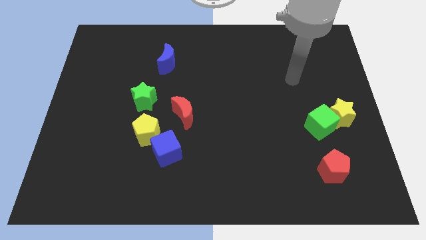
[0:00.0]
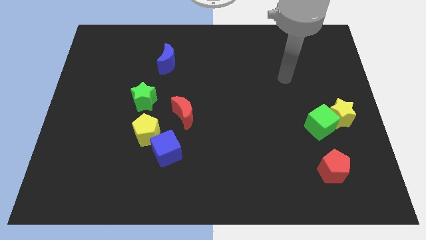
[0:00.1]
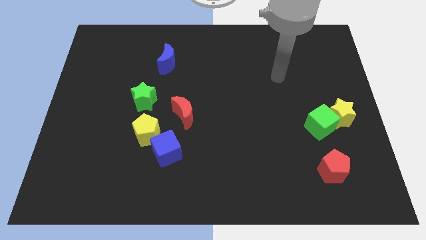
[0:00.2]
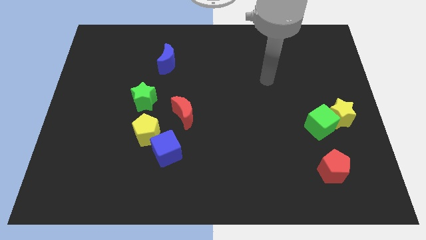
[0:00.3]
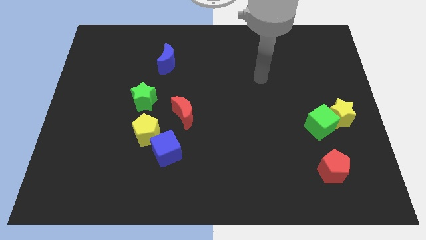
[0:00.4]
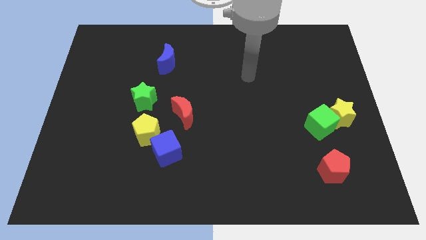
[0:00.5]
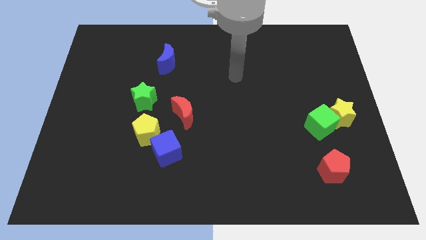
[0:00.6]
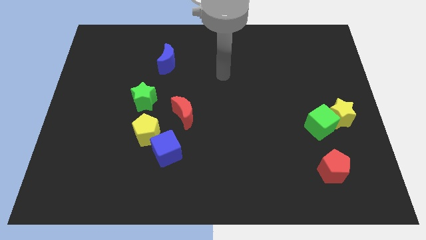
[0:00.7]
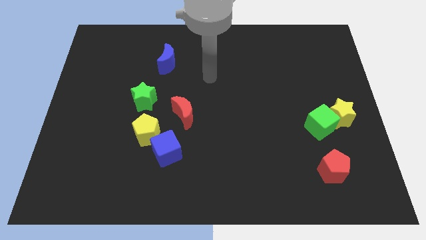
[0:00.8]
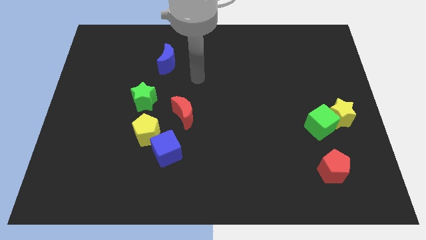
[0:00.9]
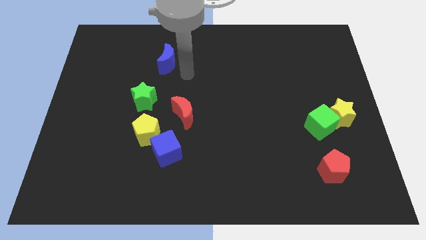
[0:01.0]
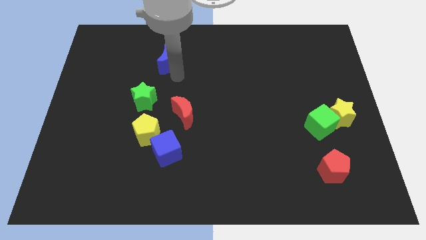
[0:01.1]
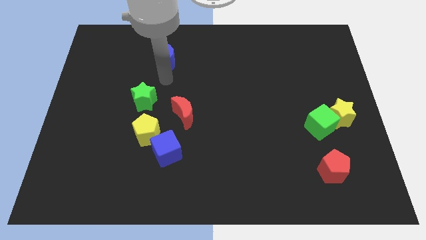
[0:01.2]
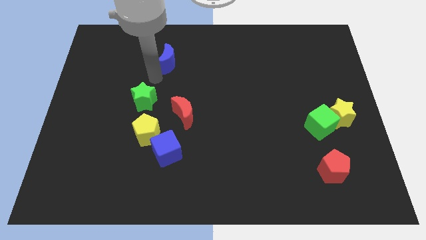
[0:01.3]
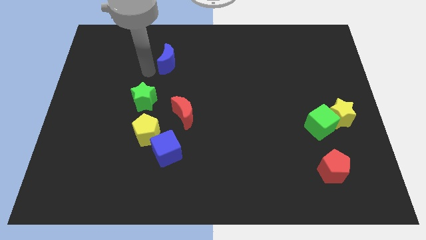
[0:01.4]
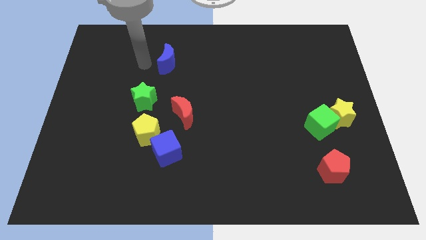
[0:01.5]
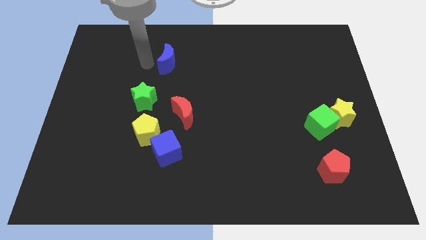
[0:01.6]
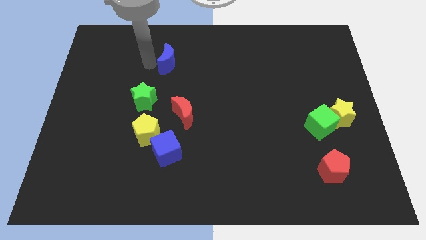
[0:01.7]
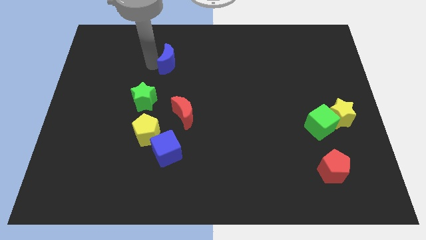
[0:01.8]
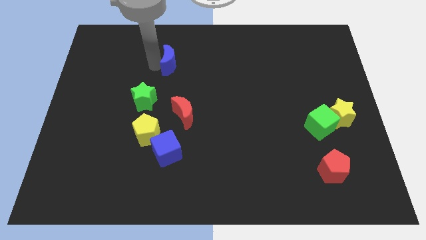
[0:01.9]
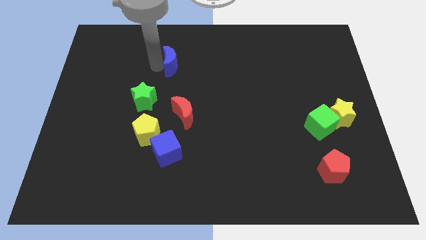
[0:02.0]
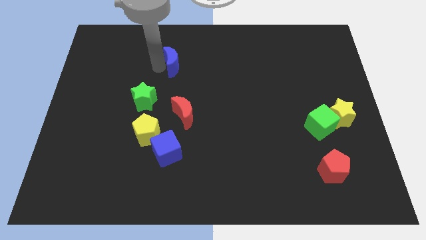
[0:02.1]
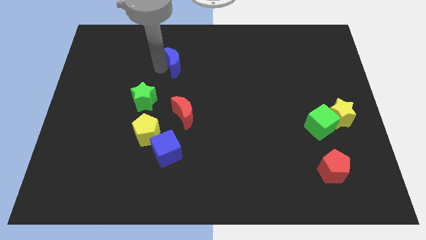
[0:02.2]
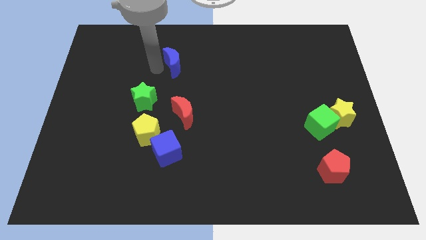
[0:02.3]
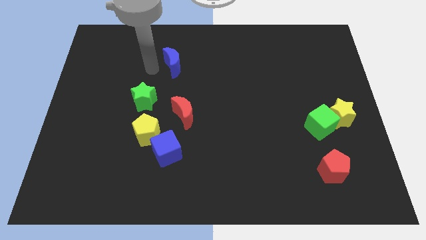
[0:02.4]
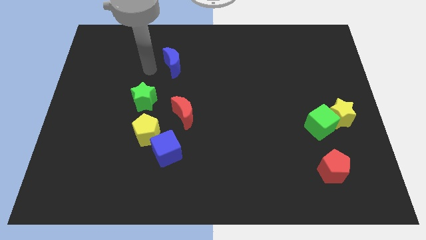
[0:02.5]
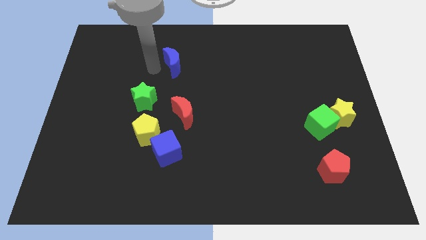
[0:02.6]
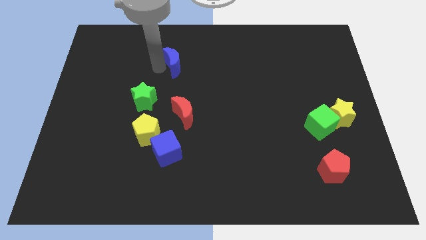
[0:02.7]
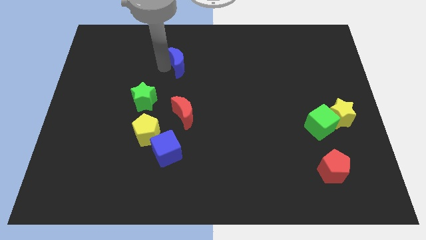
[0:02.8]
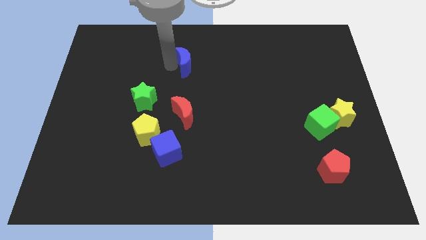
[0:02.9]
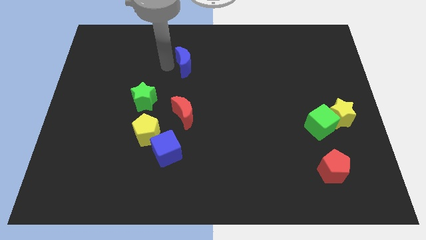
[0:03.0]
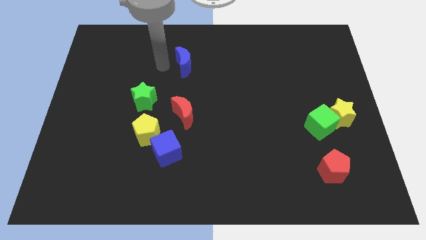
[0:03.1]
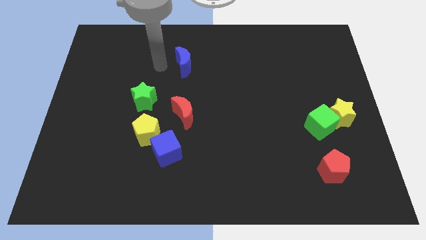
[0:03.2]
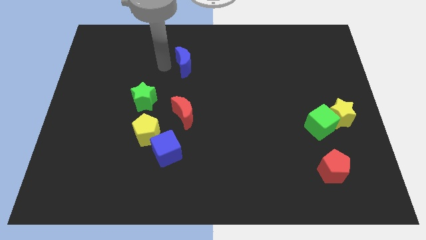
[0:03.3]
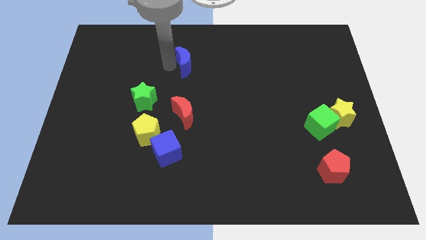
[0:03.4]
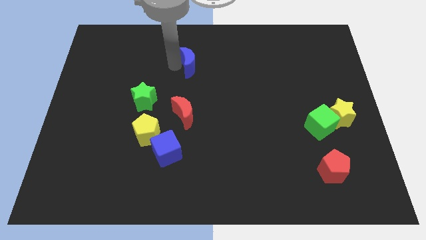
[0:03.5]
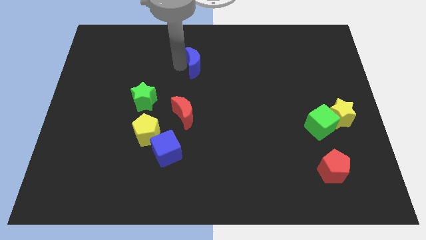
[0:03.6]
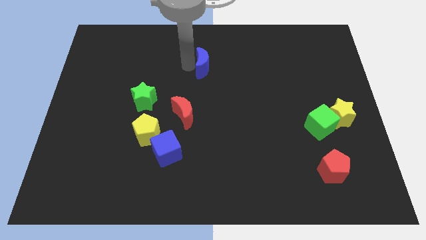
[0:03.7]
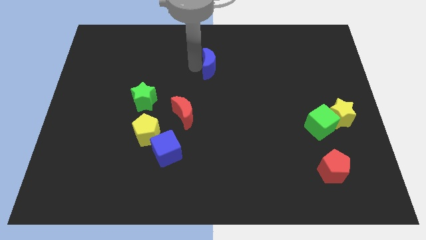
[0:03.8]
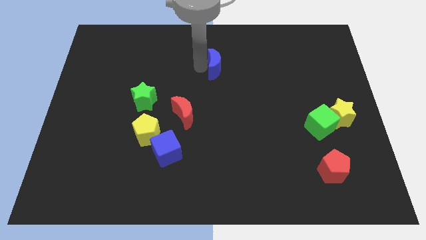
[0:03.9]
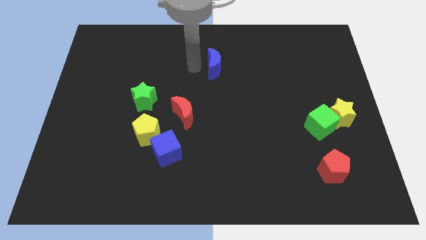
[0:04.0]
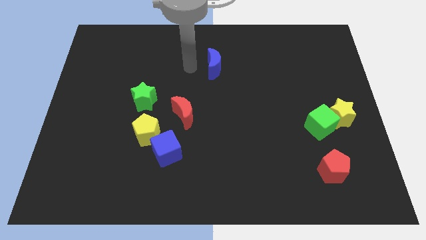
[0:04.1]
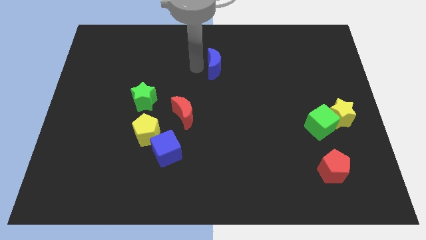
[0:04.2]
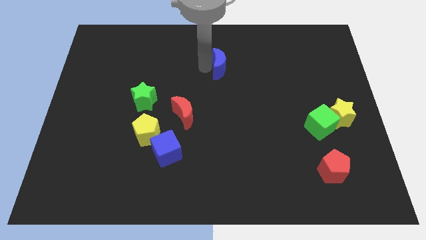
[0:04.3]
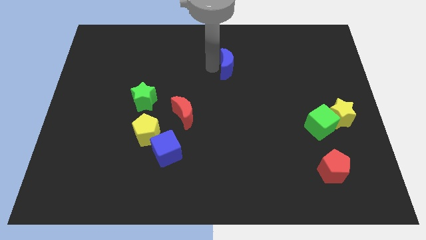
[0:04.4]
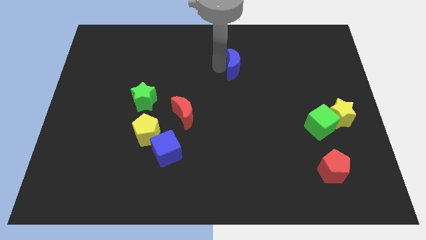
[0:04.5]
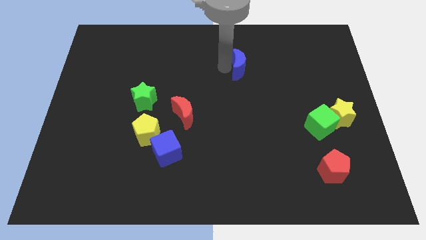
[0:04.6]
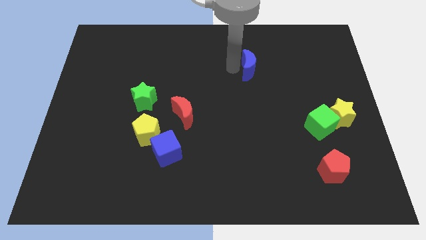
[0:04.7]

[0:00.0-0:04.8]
move the blue moon to the right

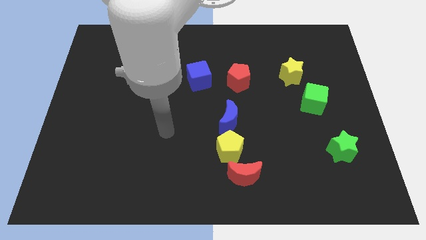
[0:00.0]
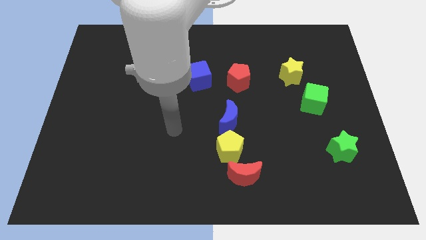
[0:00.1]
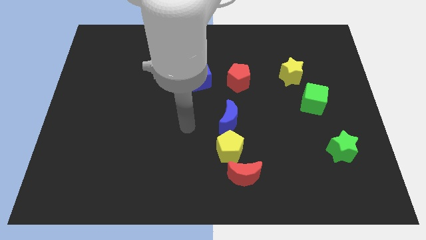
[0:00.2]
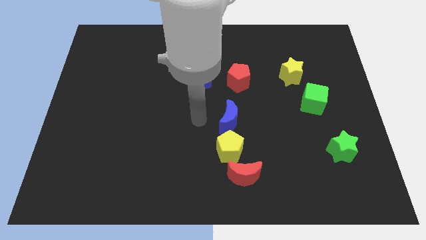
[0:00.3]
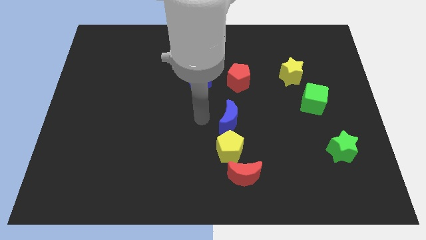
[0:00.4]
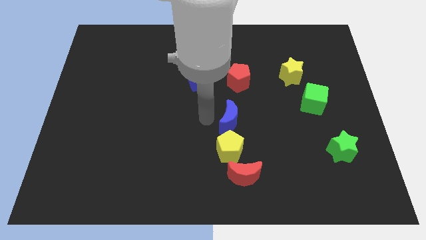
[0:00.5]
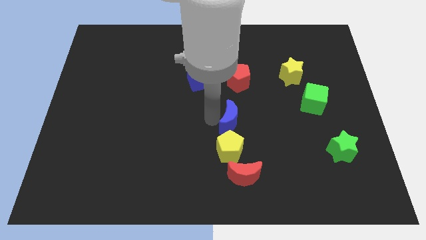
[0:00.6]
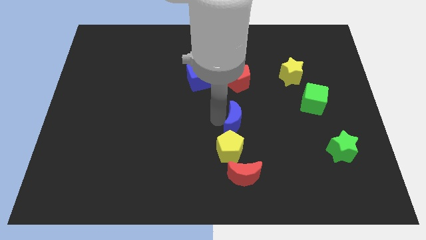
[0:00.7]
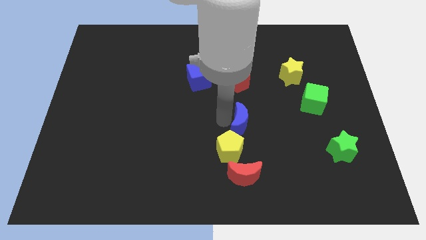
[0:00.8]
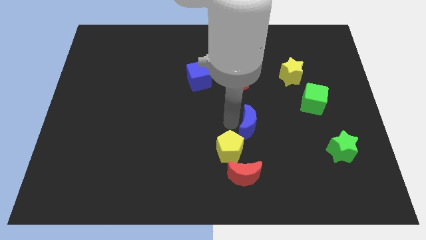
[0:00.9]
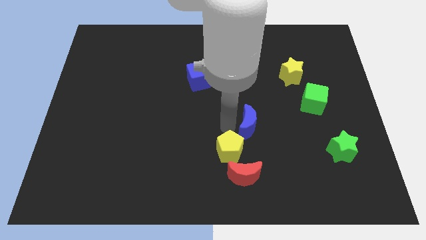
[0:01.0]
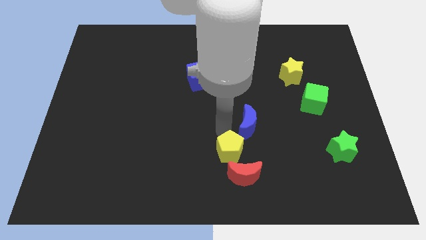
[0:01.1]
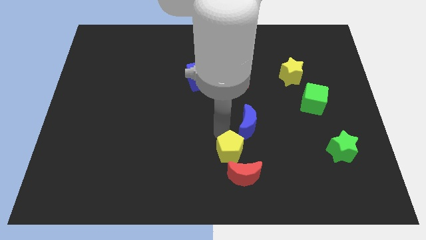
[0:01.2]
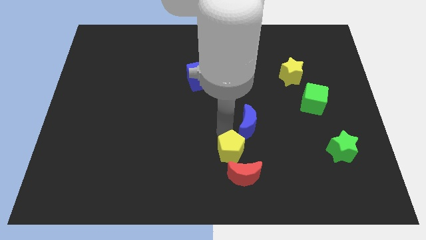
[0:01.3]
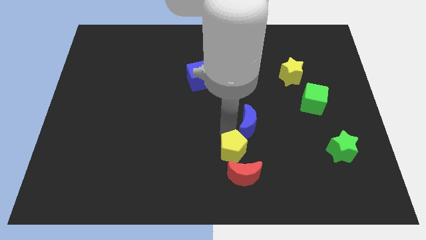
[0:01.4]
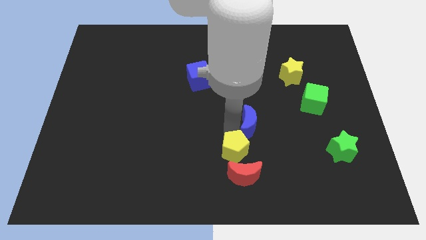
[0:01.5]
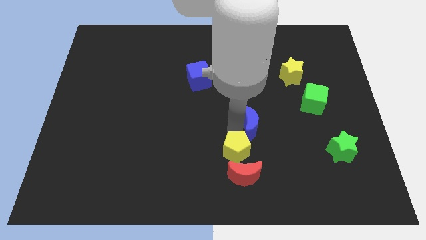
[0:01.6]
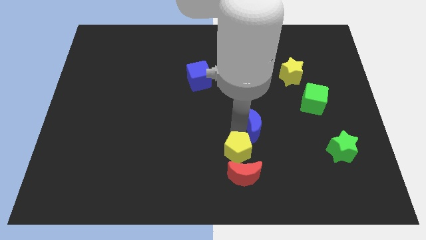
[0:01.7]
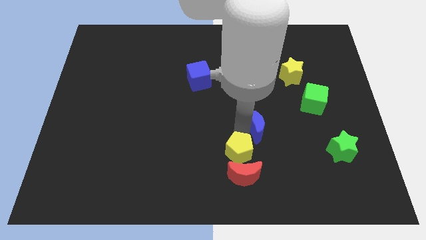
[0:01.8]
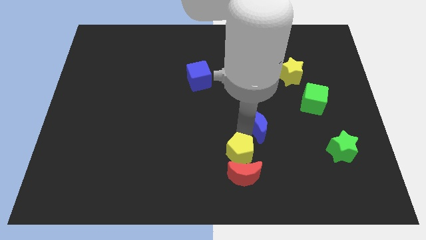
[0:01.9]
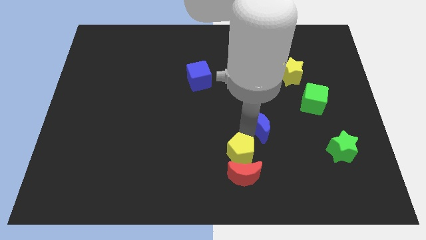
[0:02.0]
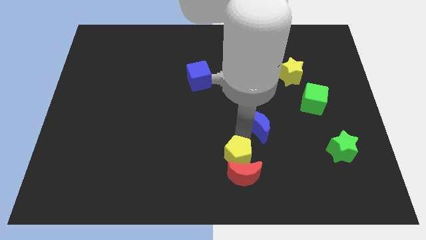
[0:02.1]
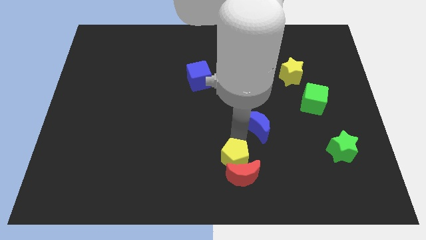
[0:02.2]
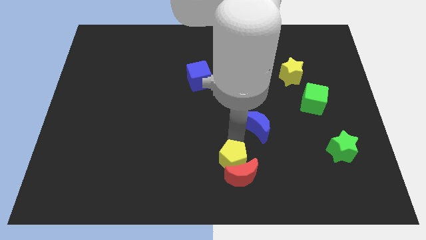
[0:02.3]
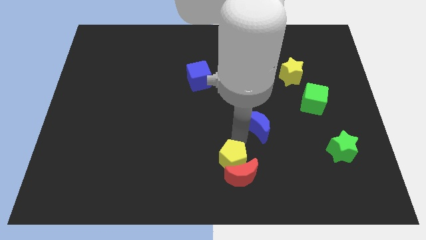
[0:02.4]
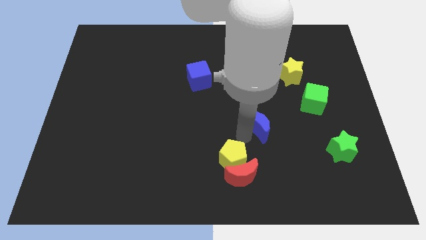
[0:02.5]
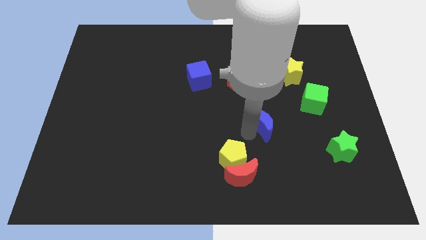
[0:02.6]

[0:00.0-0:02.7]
move the blue moon a little bit to the right
